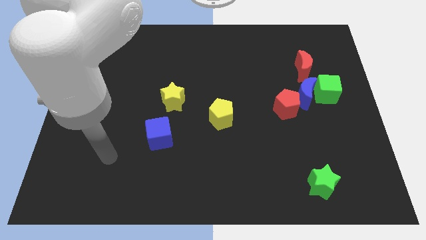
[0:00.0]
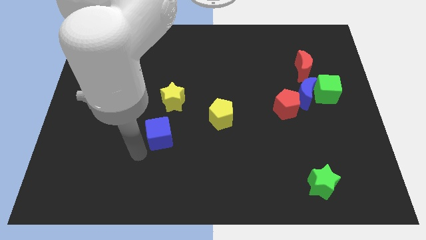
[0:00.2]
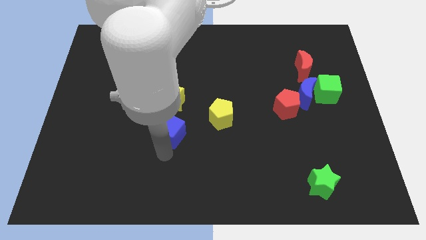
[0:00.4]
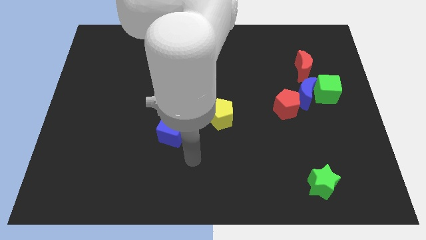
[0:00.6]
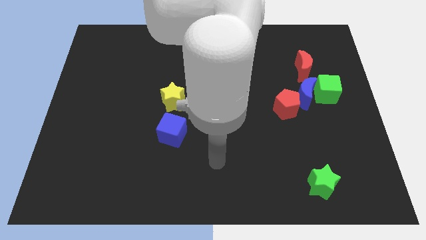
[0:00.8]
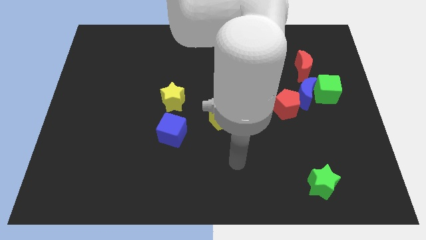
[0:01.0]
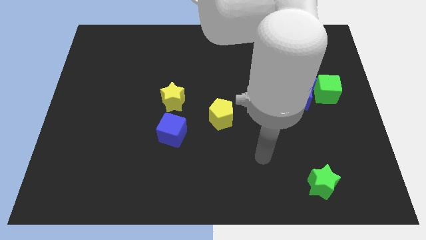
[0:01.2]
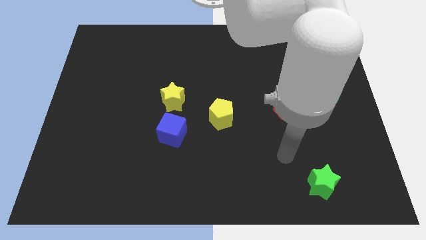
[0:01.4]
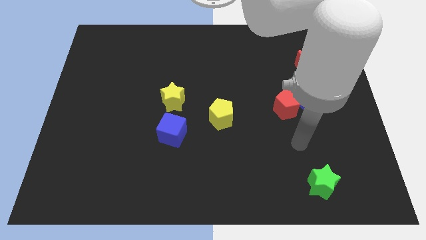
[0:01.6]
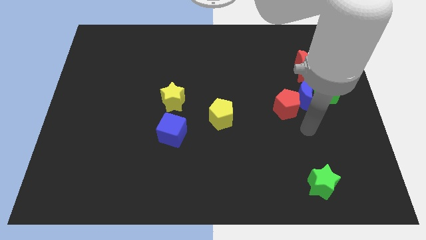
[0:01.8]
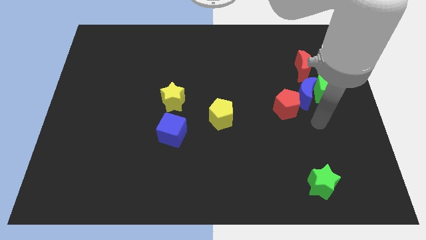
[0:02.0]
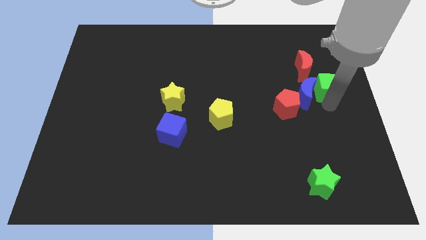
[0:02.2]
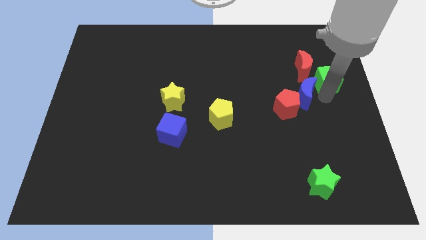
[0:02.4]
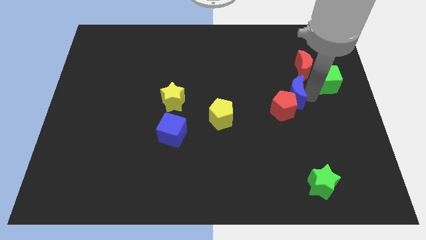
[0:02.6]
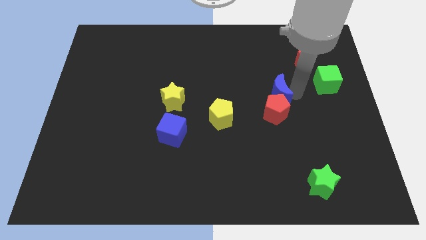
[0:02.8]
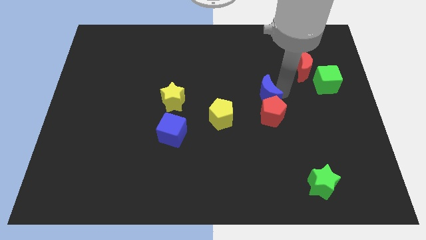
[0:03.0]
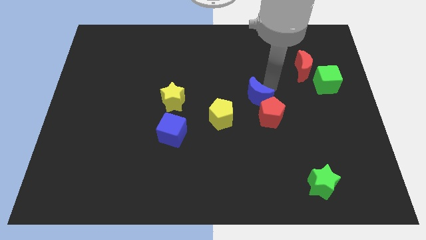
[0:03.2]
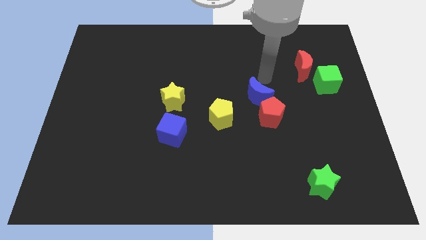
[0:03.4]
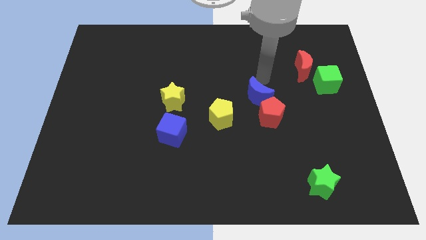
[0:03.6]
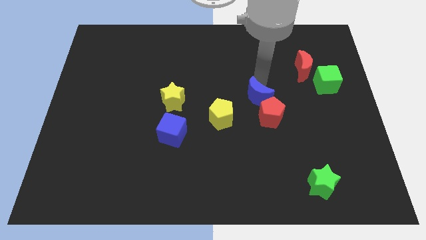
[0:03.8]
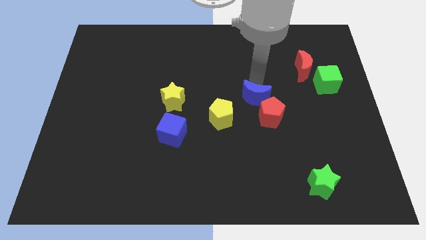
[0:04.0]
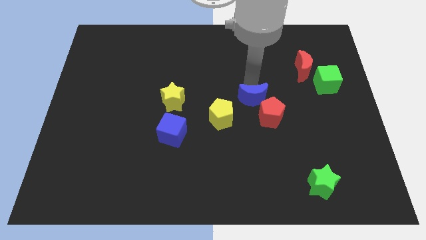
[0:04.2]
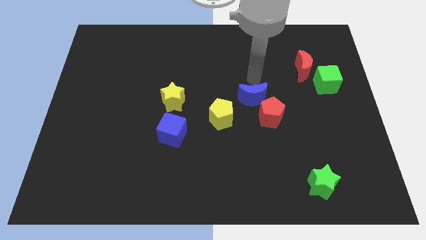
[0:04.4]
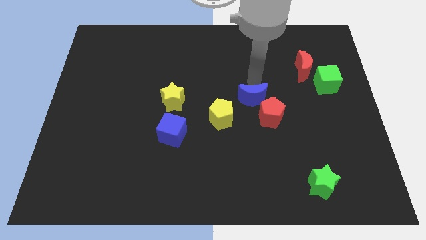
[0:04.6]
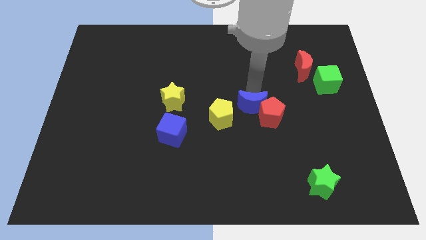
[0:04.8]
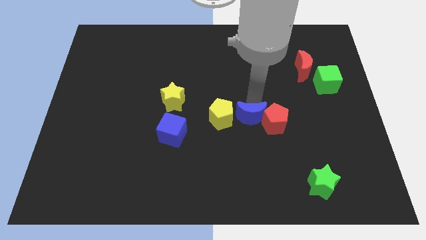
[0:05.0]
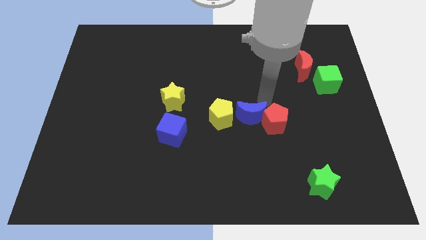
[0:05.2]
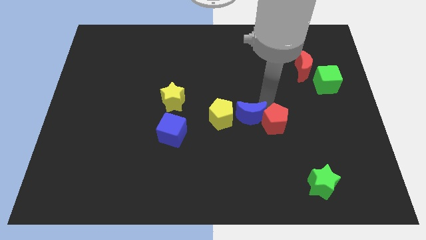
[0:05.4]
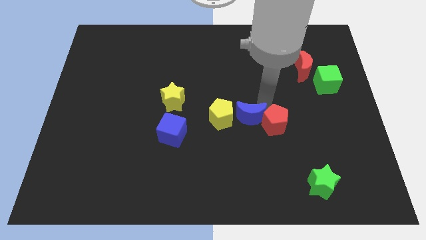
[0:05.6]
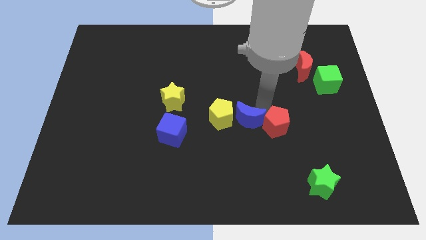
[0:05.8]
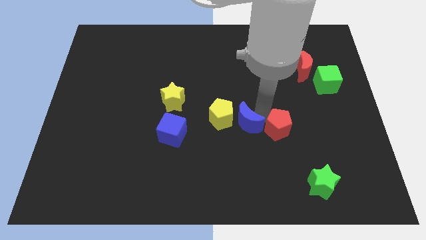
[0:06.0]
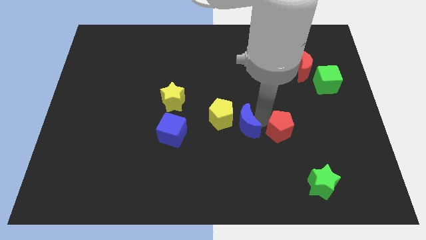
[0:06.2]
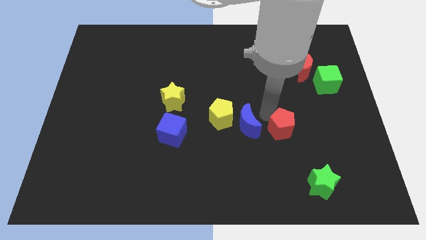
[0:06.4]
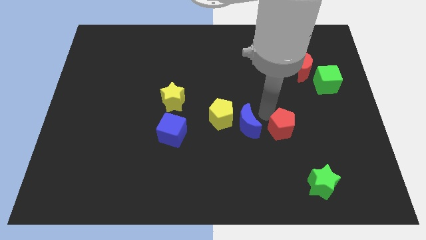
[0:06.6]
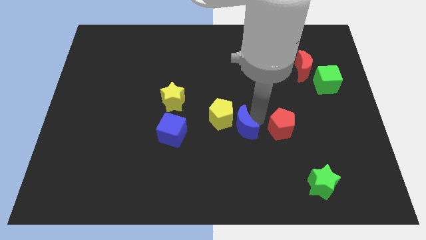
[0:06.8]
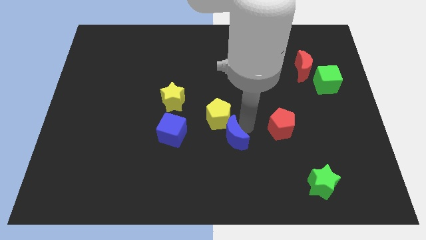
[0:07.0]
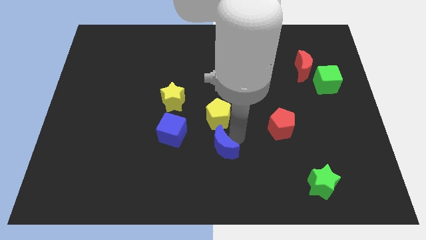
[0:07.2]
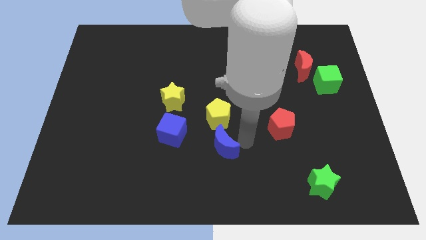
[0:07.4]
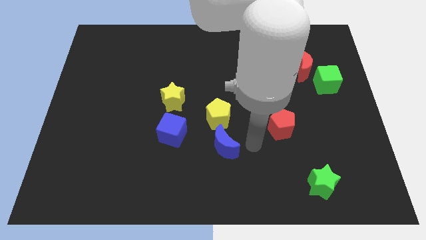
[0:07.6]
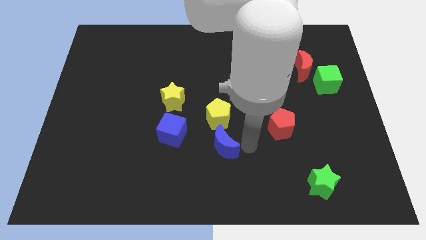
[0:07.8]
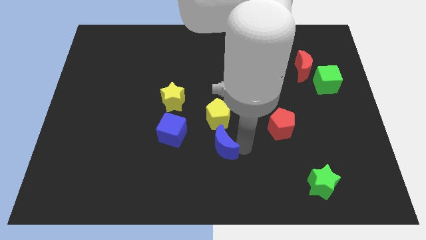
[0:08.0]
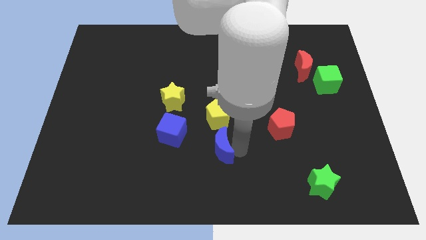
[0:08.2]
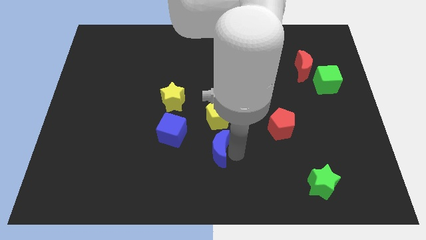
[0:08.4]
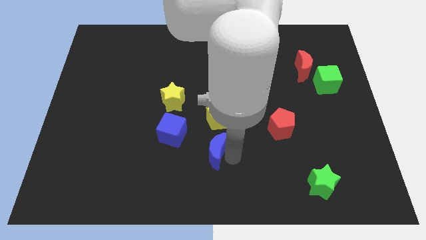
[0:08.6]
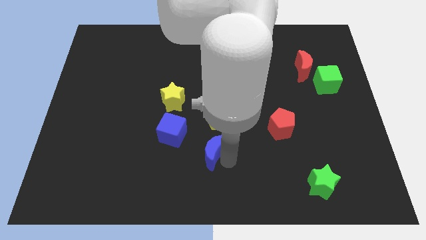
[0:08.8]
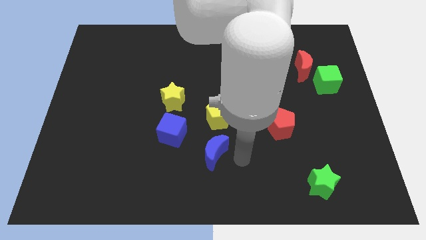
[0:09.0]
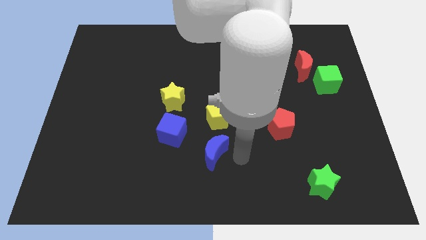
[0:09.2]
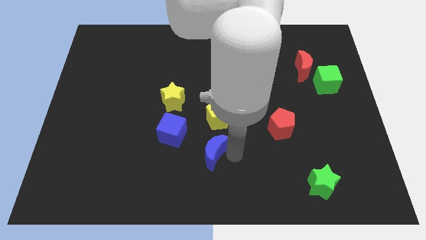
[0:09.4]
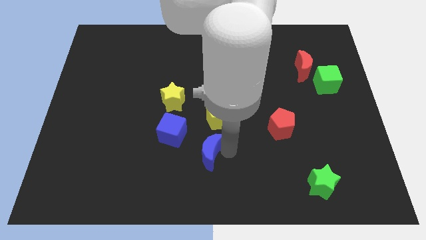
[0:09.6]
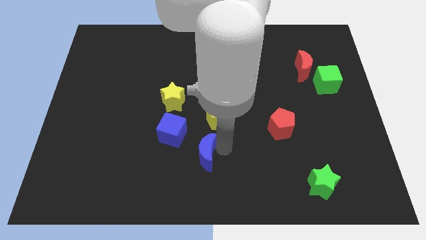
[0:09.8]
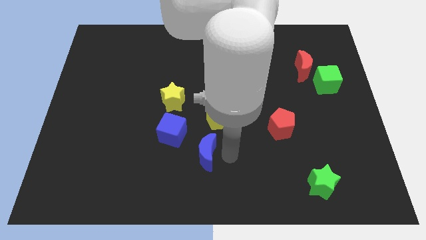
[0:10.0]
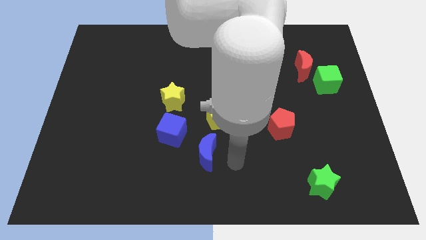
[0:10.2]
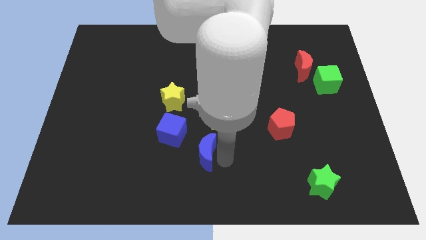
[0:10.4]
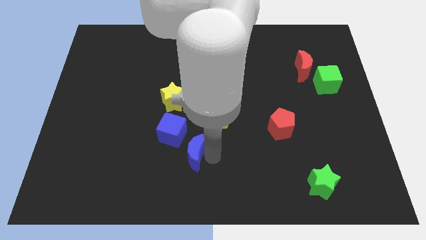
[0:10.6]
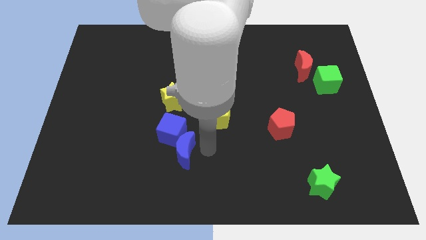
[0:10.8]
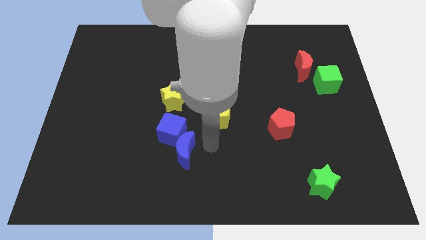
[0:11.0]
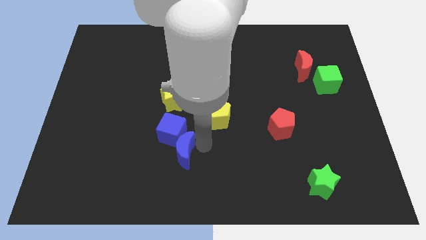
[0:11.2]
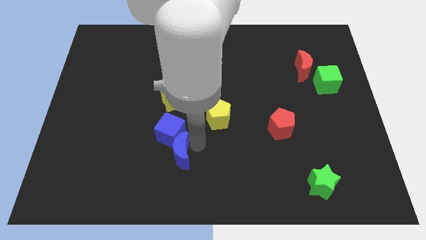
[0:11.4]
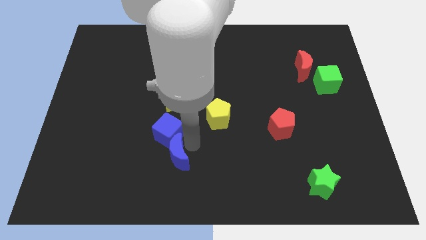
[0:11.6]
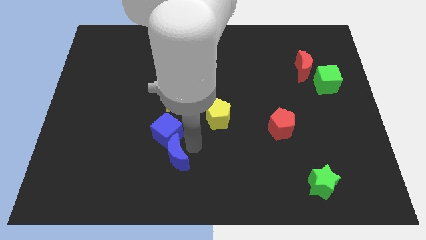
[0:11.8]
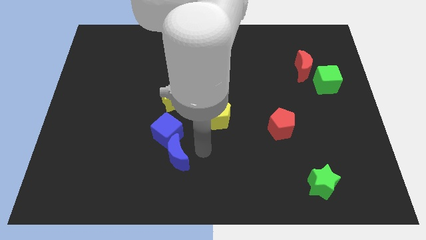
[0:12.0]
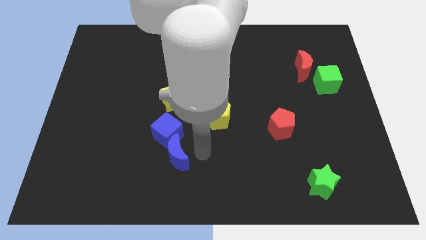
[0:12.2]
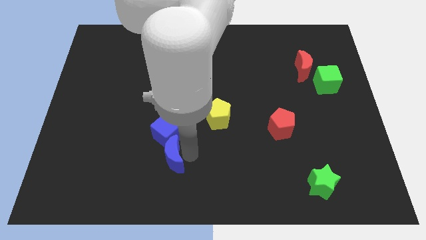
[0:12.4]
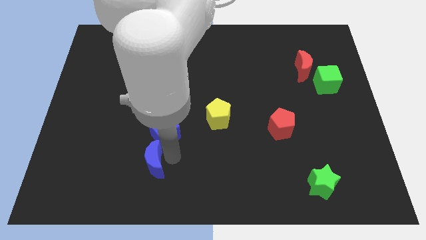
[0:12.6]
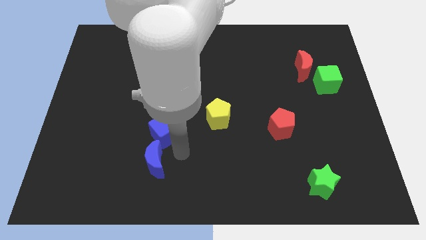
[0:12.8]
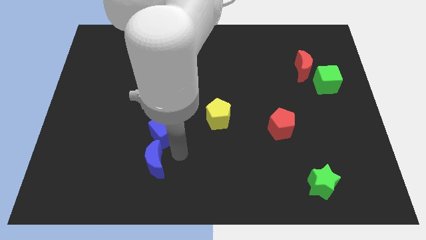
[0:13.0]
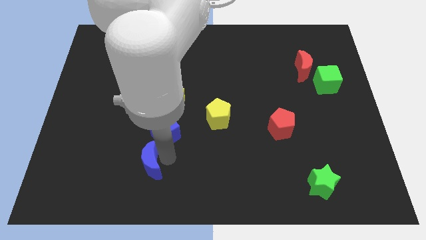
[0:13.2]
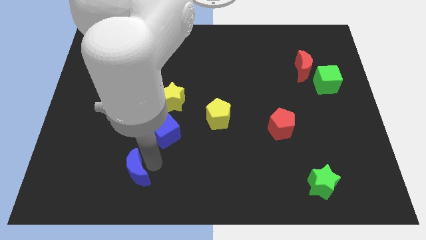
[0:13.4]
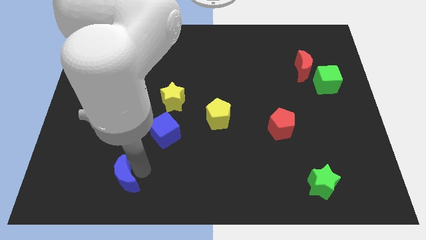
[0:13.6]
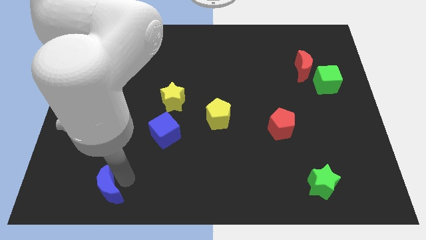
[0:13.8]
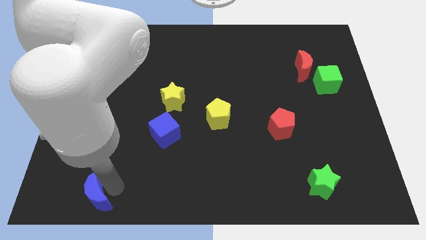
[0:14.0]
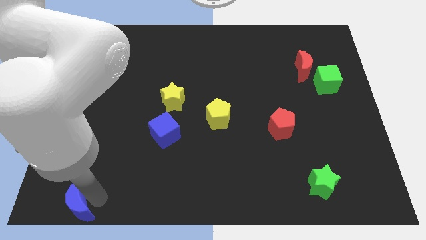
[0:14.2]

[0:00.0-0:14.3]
push the blue moon to the bottom left
